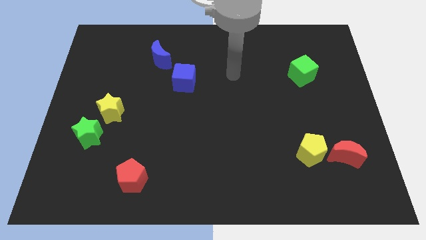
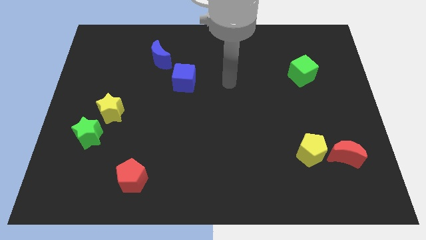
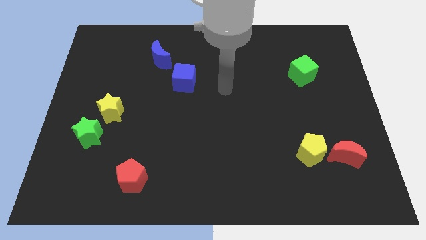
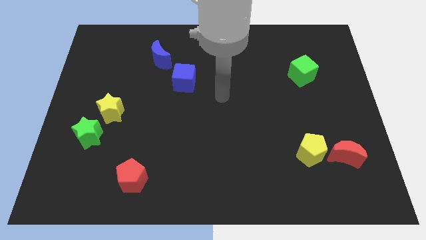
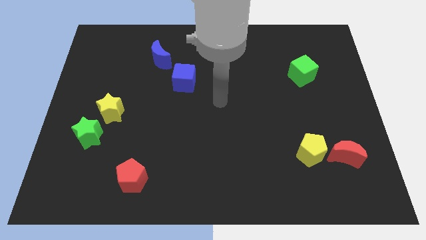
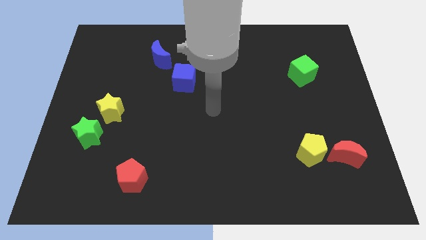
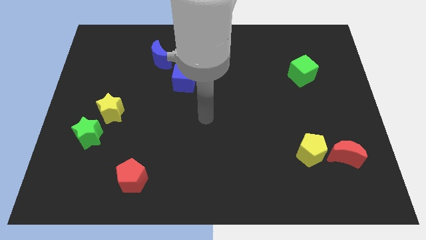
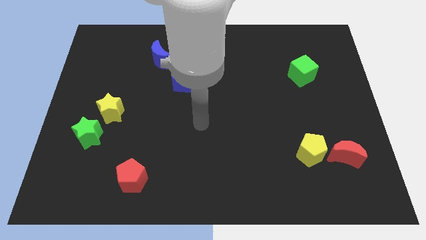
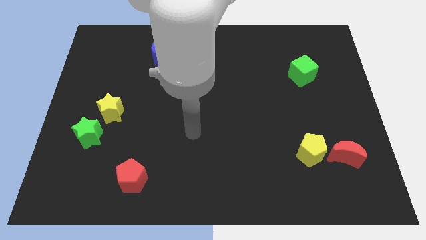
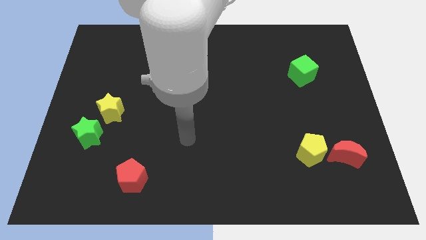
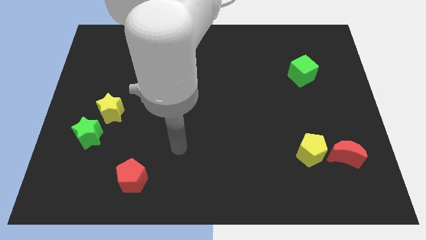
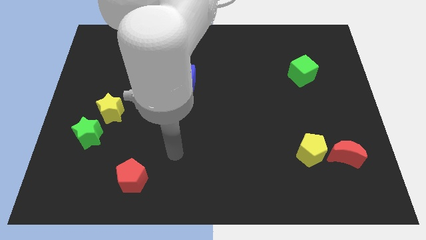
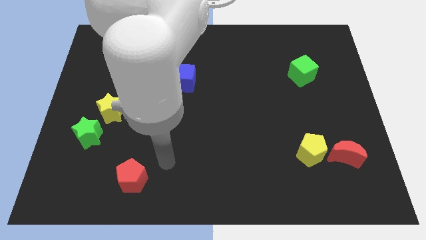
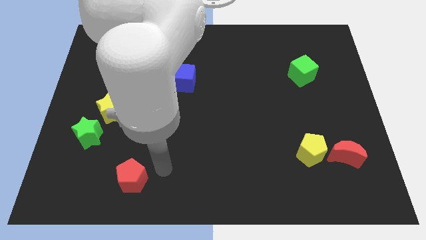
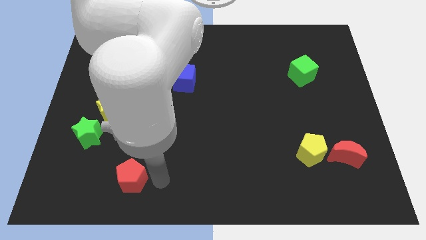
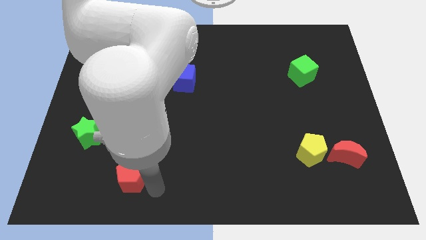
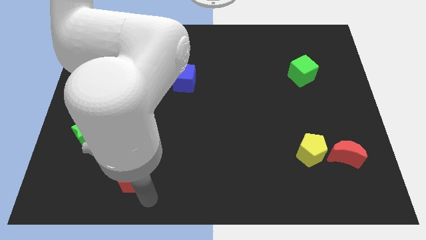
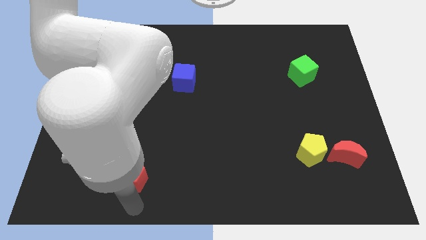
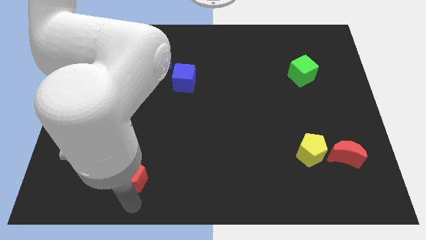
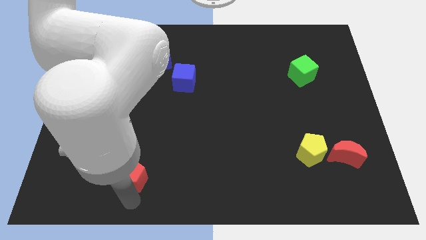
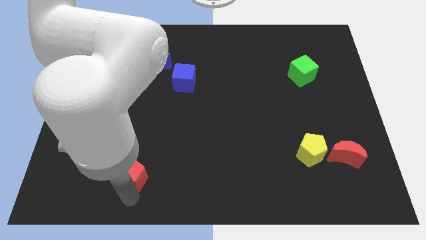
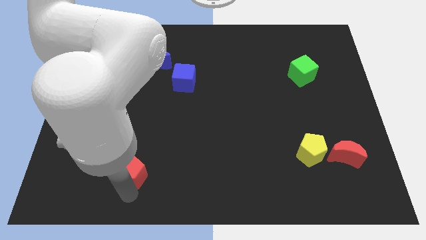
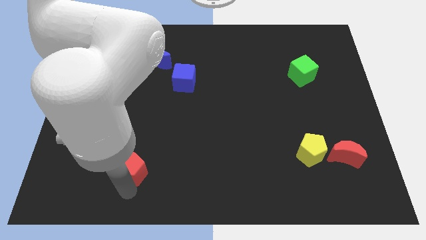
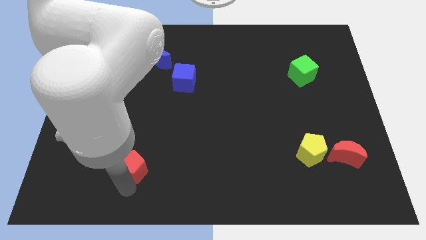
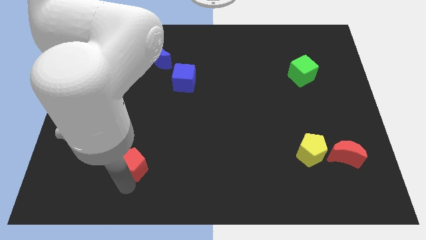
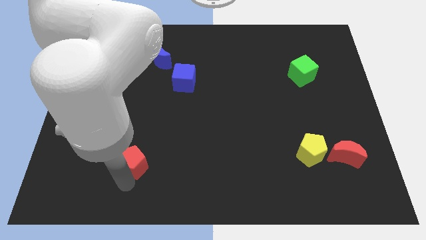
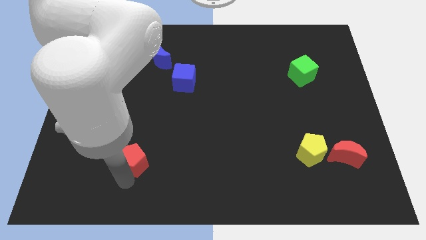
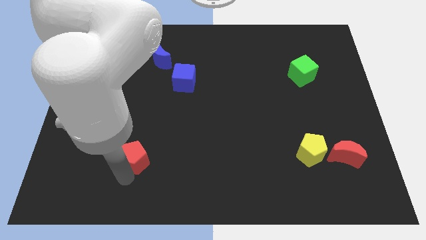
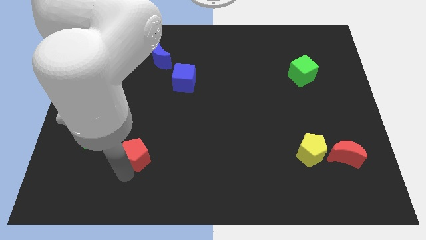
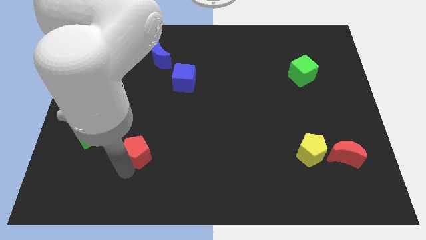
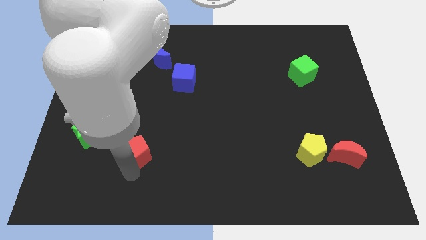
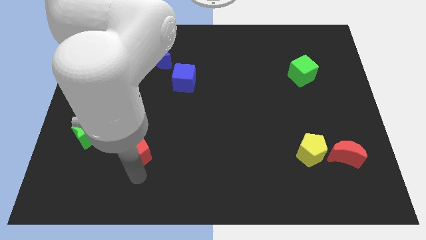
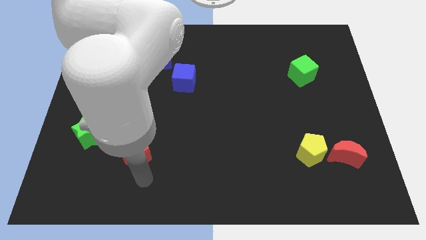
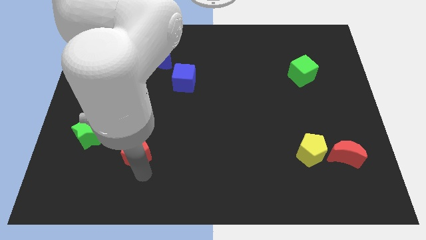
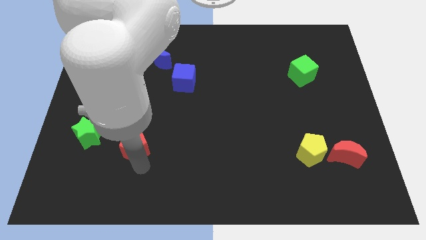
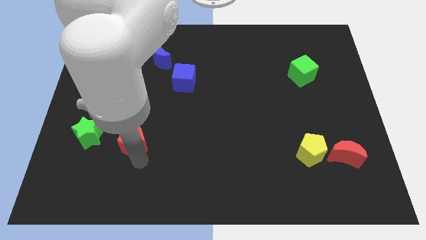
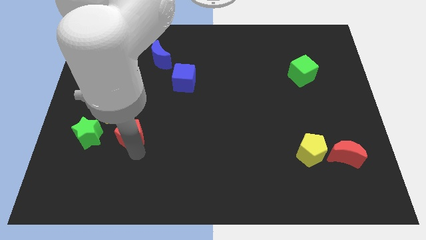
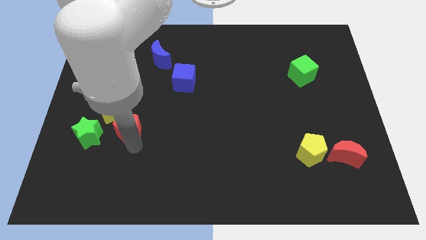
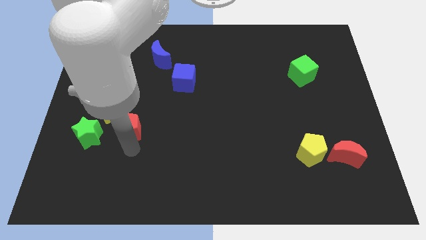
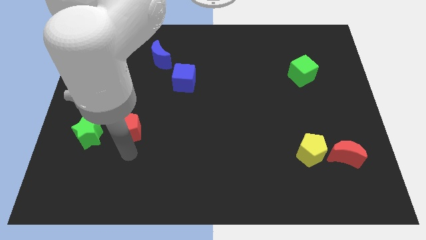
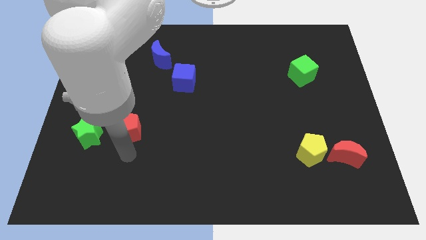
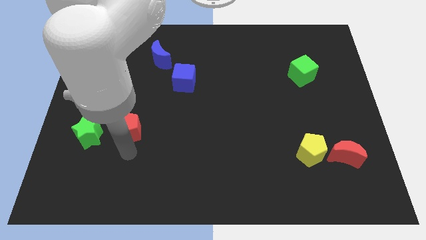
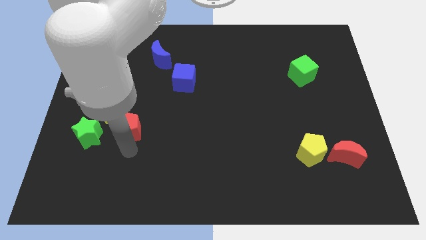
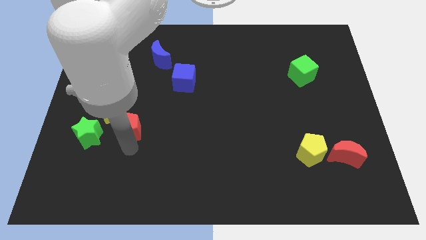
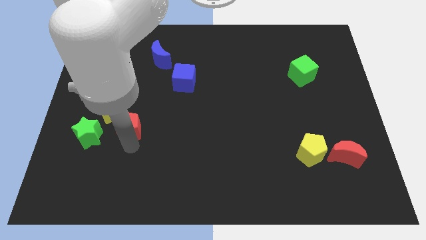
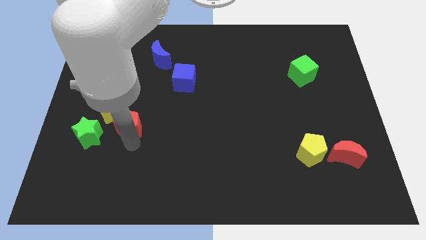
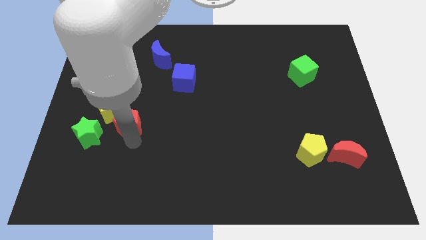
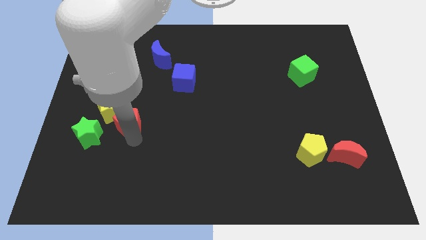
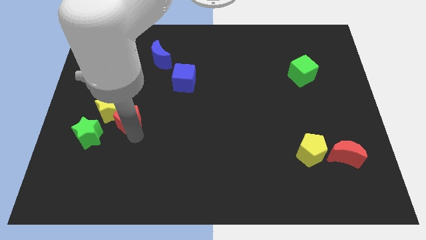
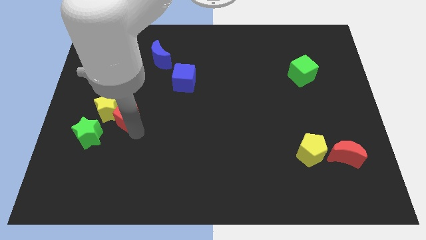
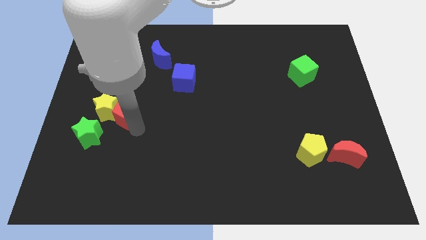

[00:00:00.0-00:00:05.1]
put the red pentagon to the top right of the yellow star

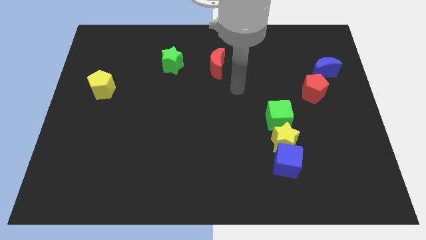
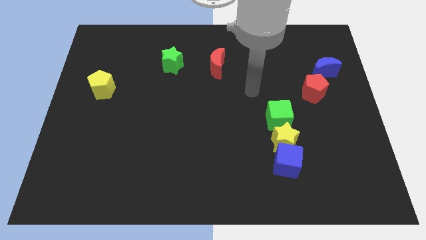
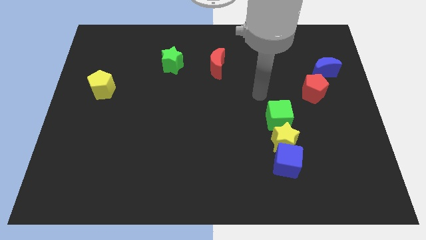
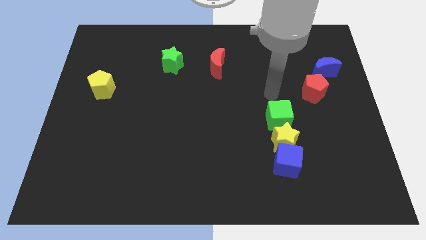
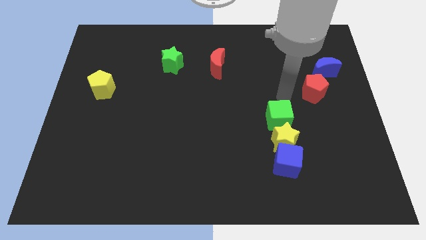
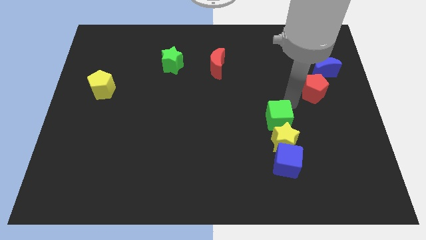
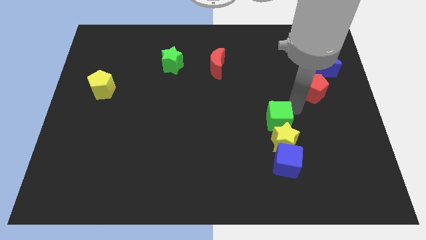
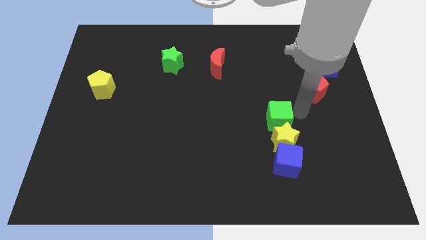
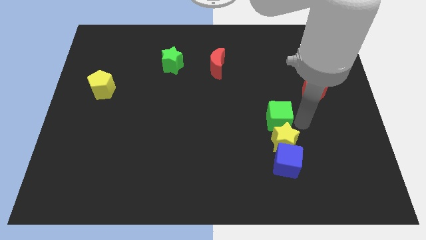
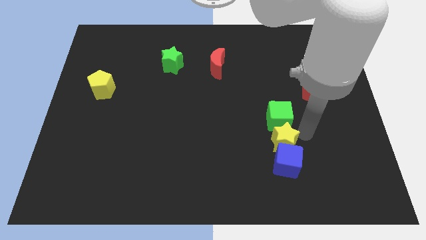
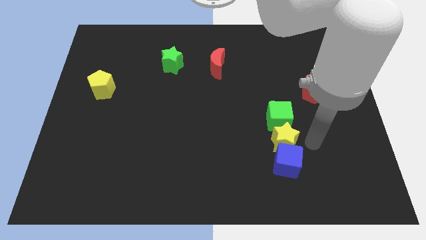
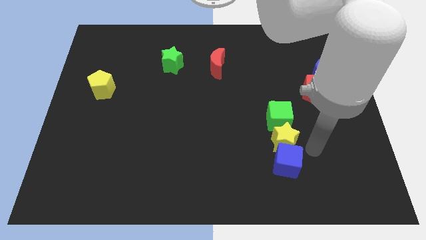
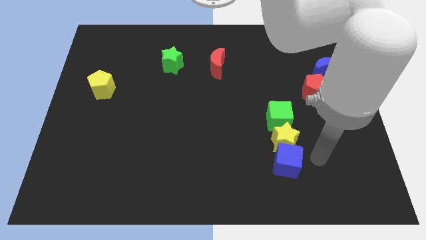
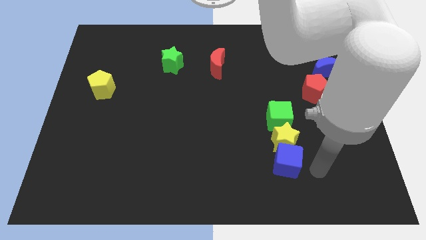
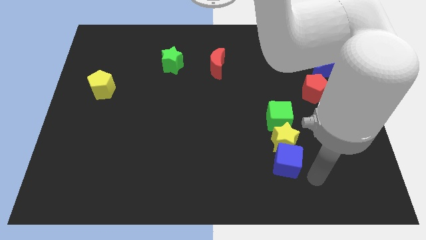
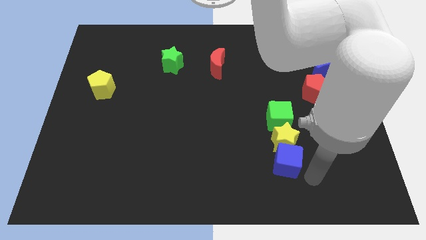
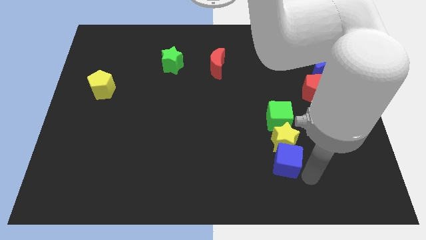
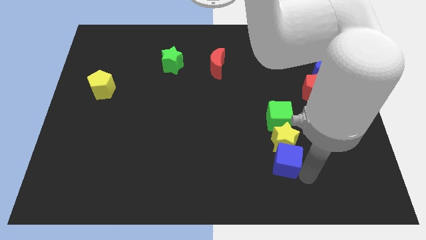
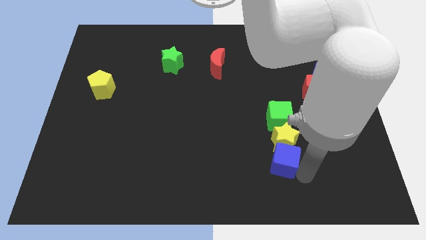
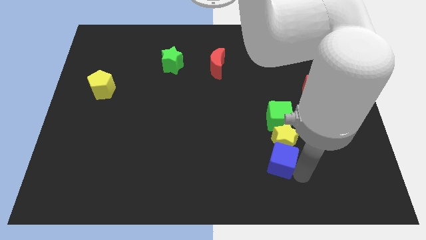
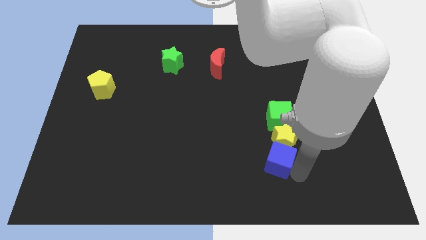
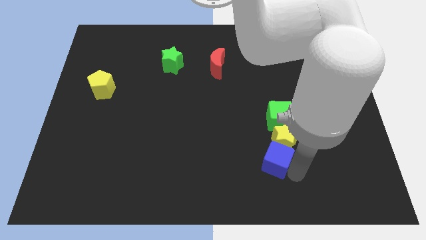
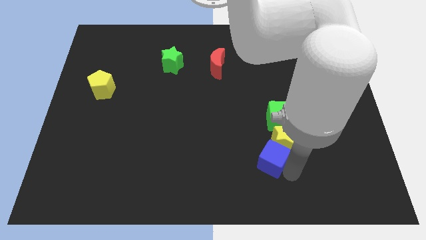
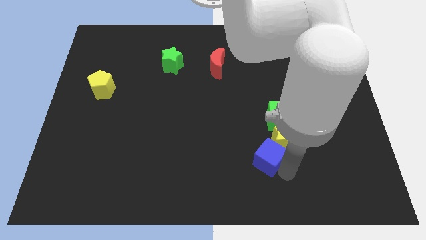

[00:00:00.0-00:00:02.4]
move the blue cube left of the yellow star
